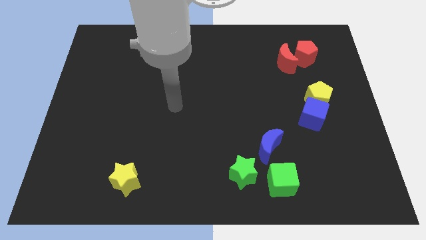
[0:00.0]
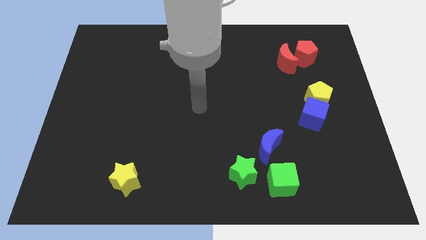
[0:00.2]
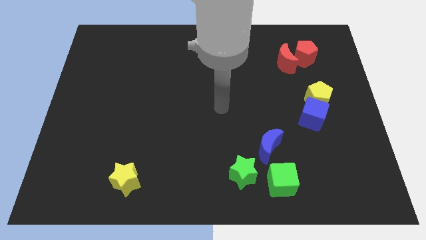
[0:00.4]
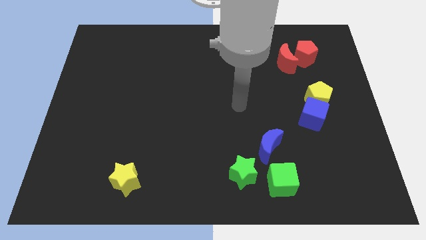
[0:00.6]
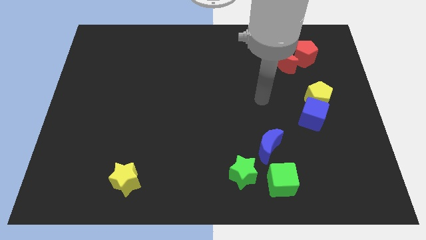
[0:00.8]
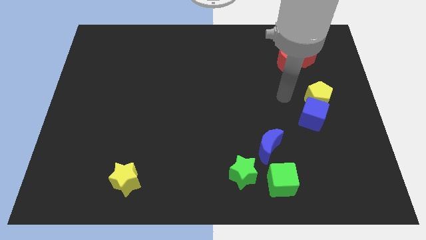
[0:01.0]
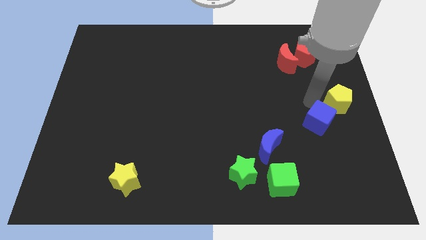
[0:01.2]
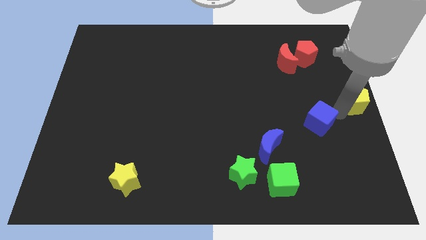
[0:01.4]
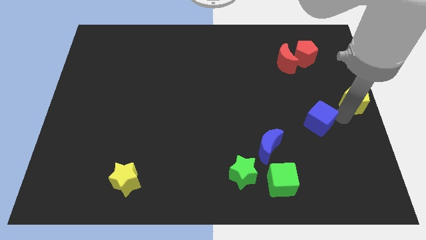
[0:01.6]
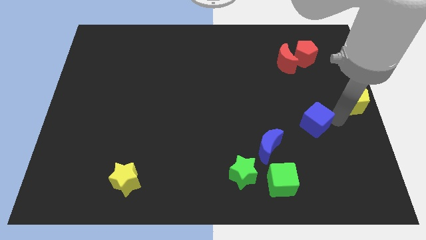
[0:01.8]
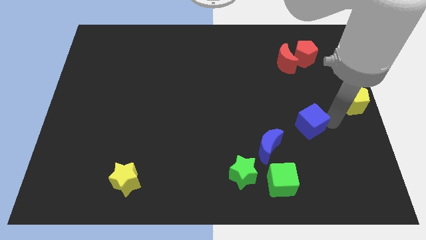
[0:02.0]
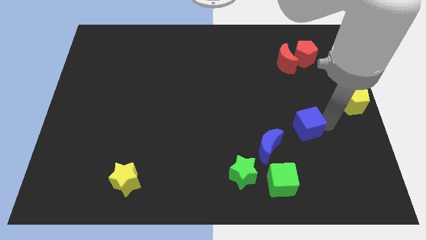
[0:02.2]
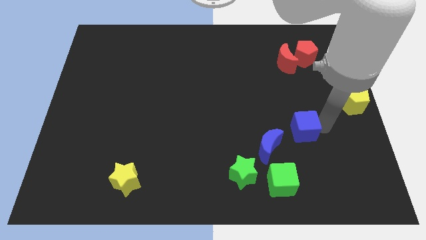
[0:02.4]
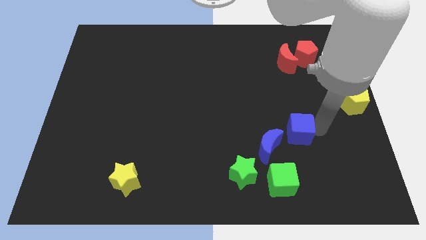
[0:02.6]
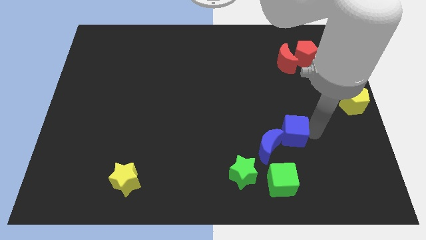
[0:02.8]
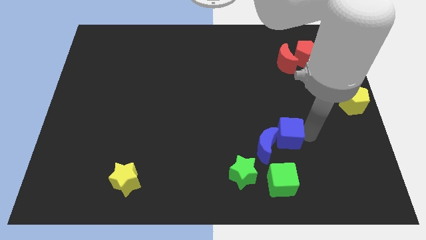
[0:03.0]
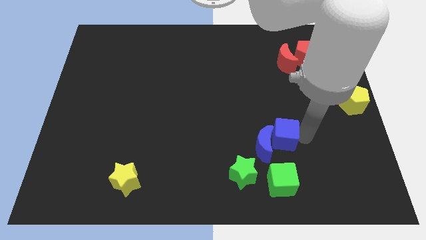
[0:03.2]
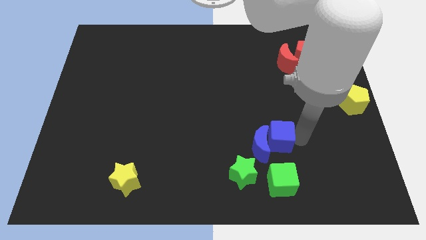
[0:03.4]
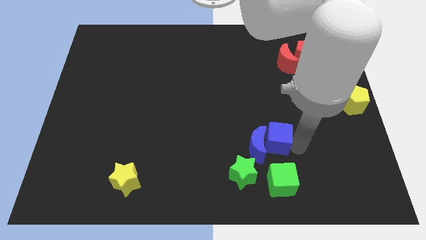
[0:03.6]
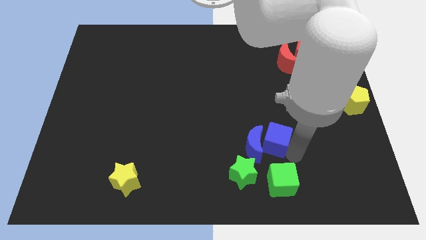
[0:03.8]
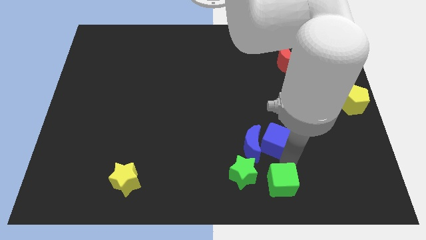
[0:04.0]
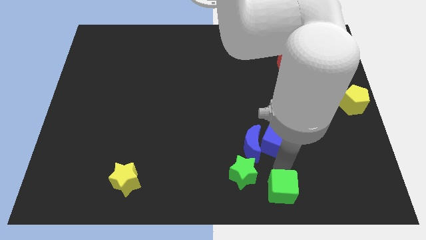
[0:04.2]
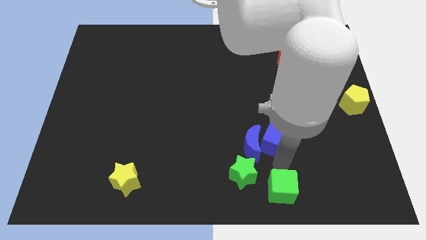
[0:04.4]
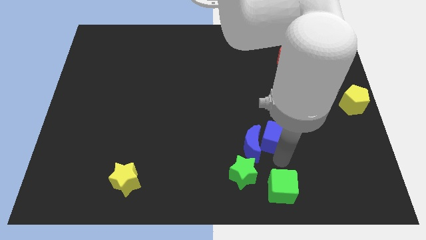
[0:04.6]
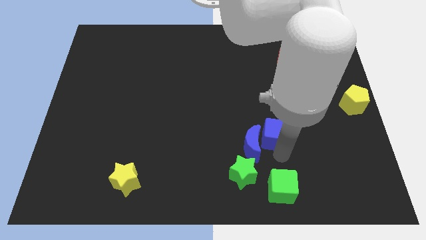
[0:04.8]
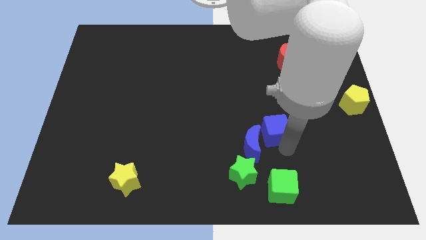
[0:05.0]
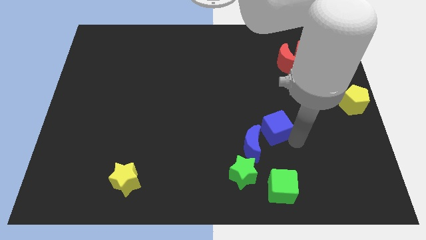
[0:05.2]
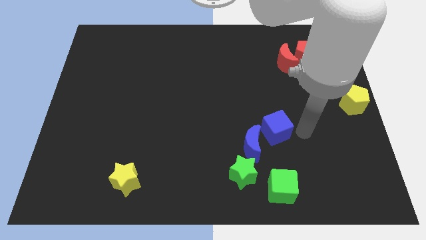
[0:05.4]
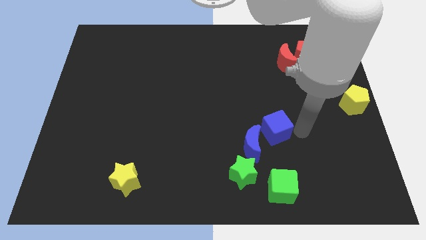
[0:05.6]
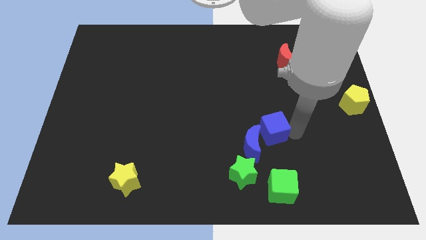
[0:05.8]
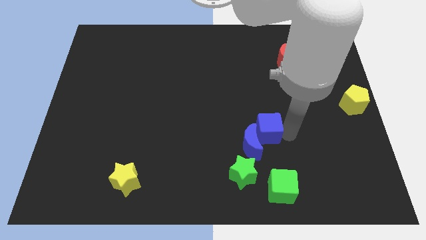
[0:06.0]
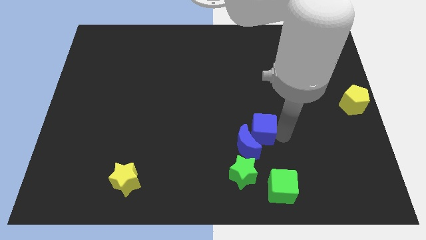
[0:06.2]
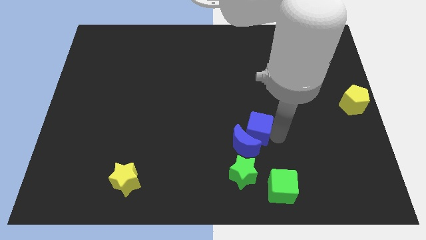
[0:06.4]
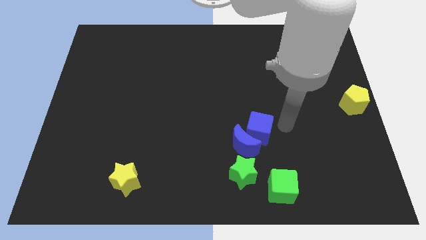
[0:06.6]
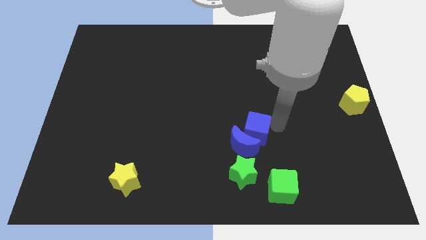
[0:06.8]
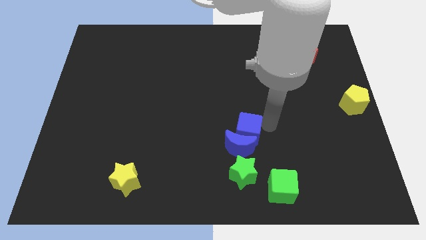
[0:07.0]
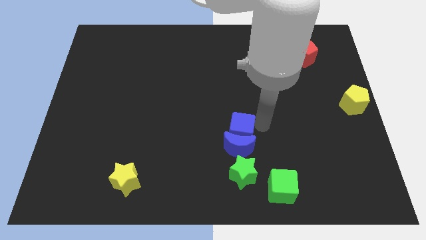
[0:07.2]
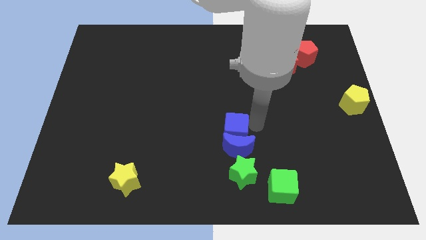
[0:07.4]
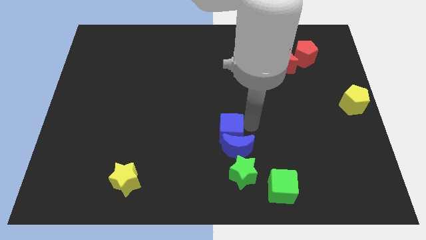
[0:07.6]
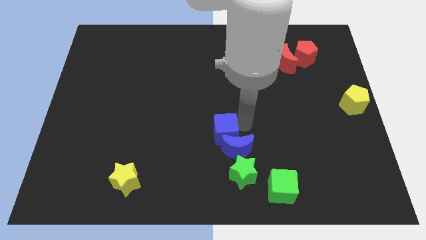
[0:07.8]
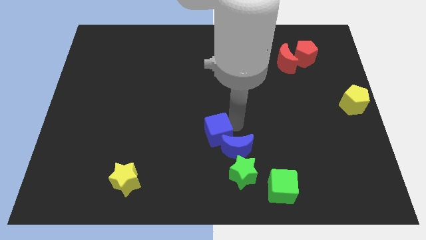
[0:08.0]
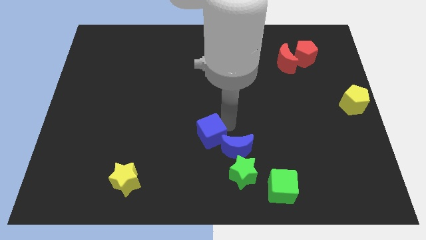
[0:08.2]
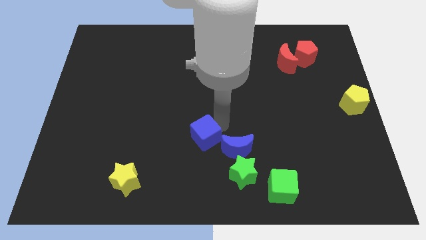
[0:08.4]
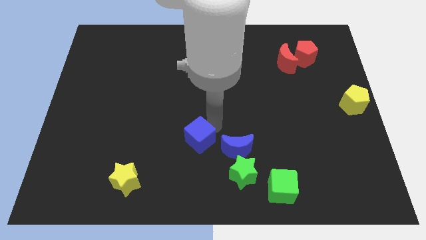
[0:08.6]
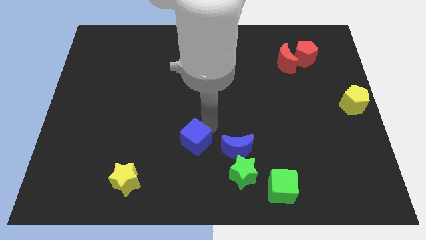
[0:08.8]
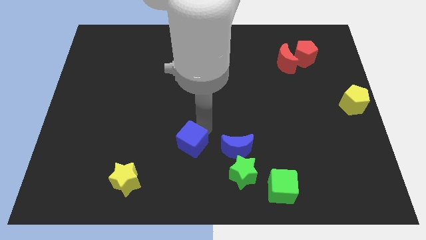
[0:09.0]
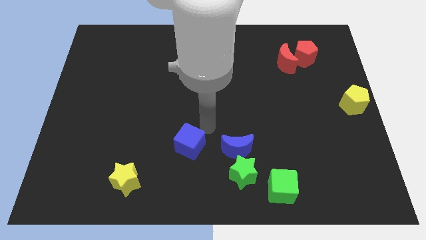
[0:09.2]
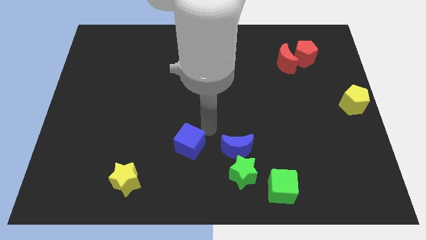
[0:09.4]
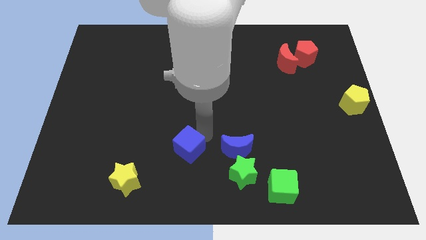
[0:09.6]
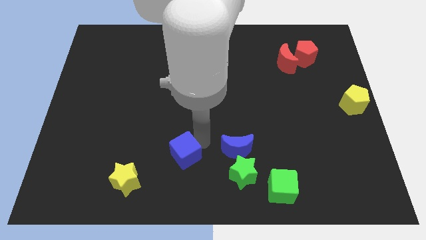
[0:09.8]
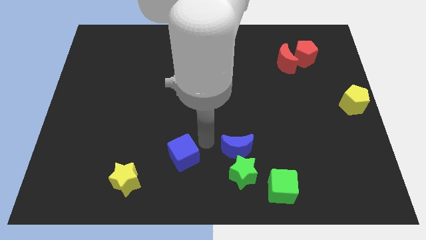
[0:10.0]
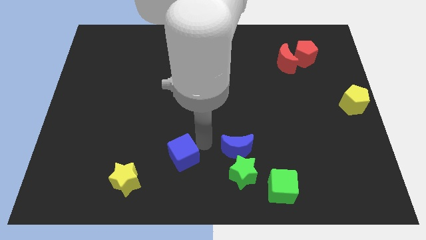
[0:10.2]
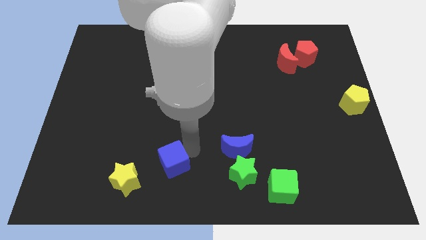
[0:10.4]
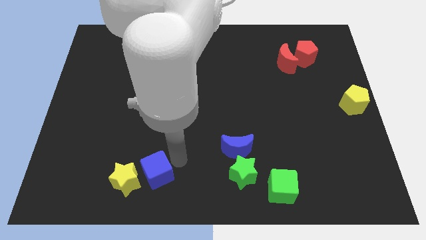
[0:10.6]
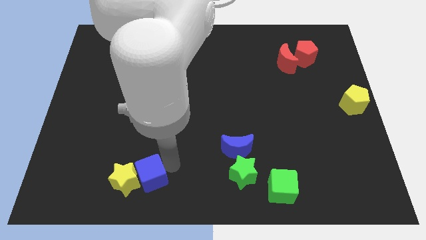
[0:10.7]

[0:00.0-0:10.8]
push the blue cube towards the yellow star

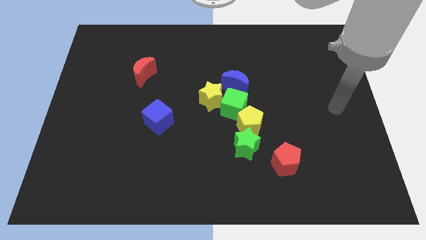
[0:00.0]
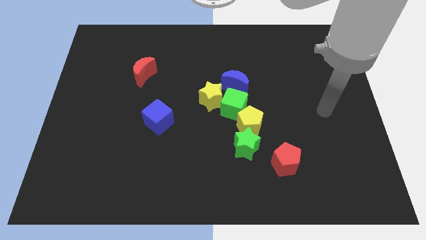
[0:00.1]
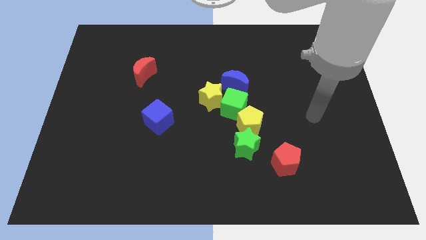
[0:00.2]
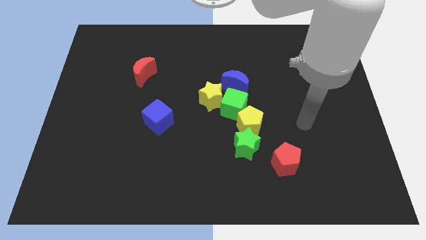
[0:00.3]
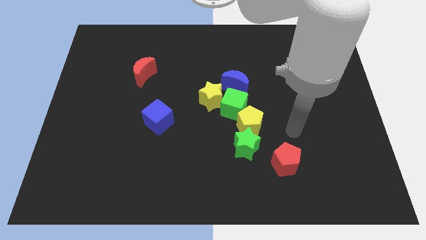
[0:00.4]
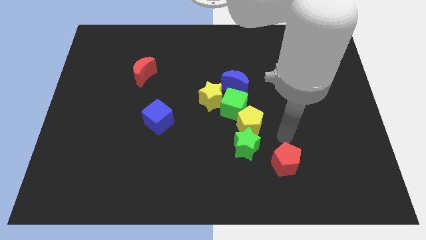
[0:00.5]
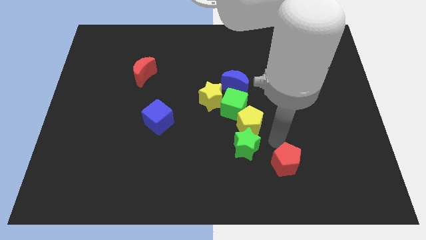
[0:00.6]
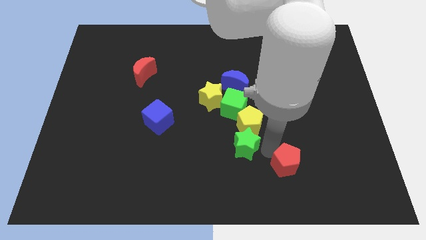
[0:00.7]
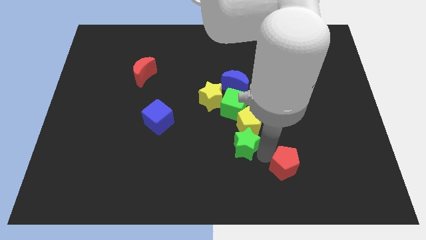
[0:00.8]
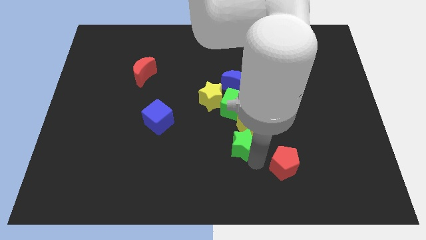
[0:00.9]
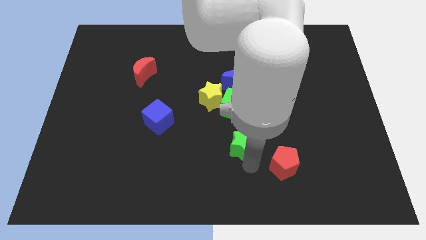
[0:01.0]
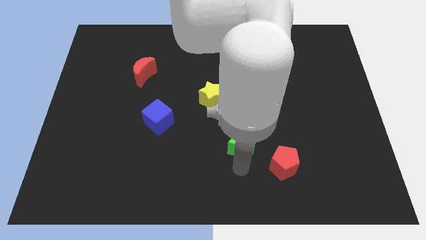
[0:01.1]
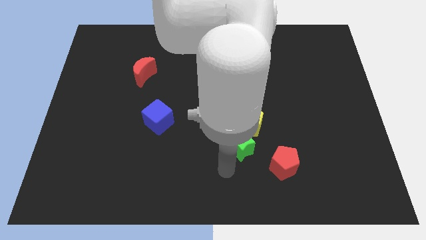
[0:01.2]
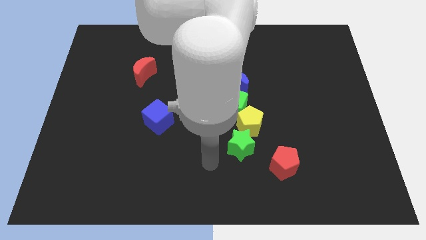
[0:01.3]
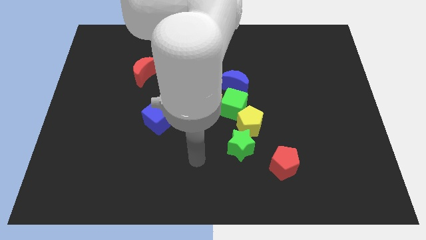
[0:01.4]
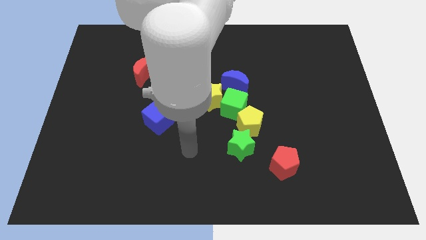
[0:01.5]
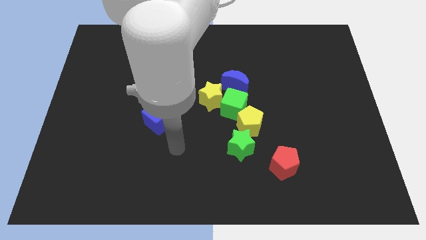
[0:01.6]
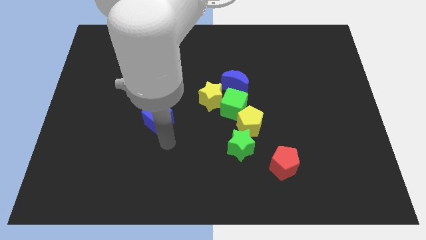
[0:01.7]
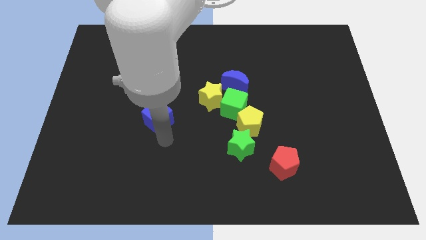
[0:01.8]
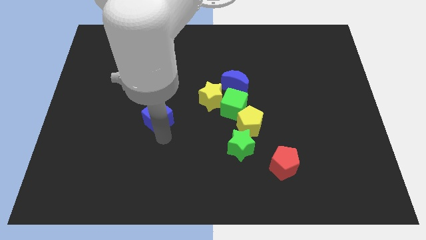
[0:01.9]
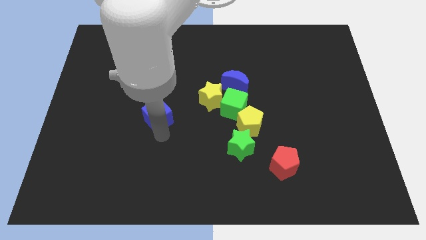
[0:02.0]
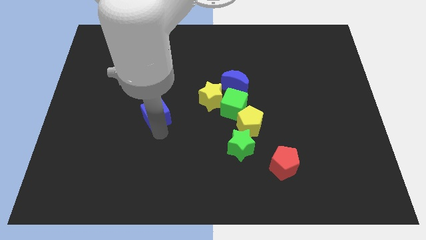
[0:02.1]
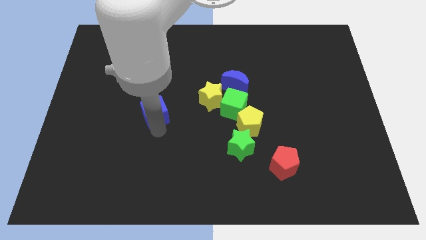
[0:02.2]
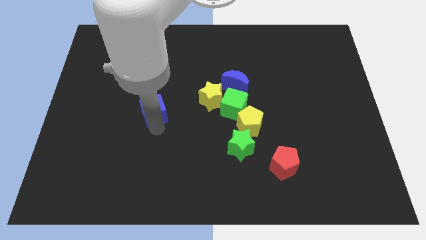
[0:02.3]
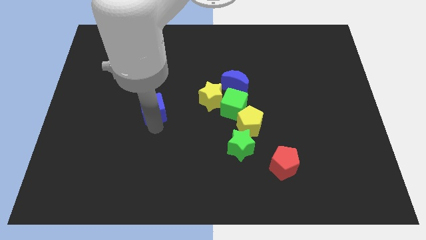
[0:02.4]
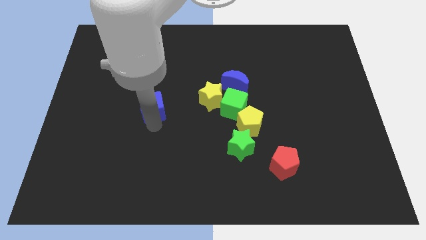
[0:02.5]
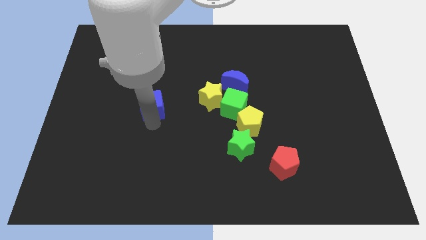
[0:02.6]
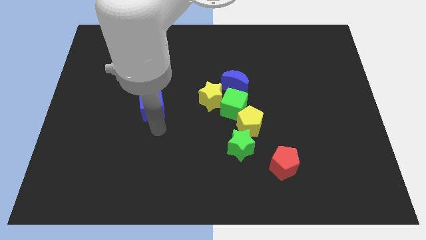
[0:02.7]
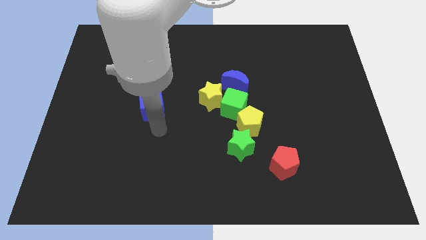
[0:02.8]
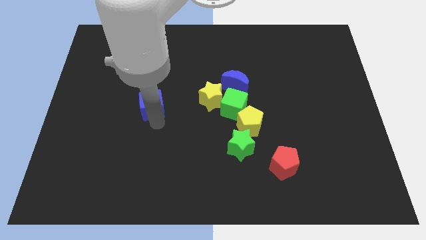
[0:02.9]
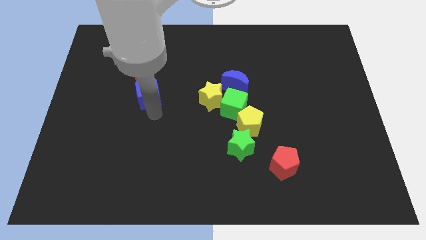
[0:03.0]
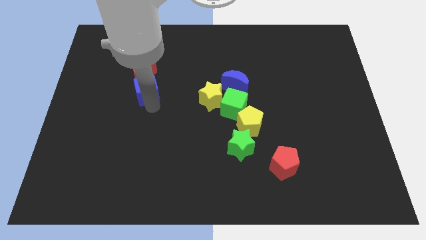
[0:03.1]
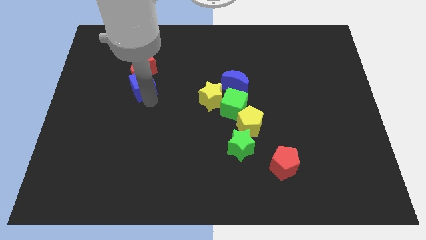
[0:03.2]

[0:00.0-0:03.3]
slide the blue cube close to the red moon
